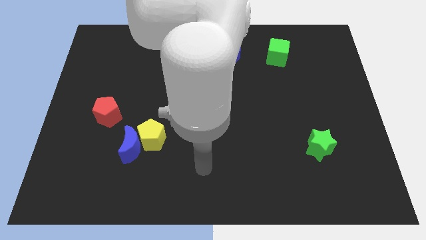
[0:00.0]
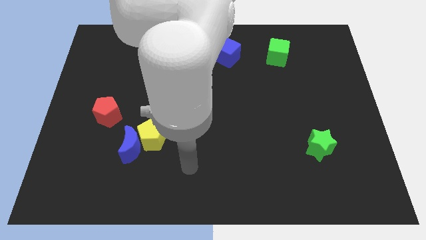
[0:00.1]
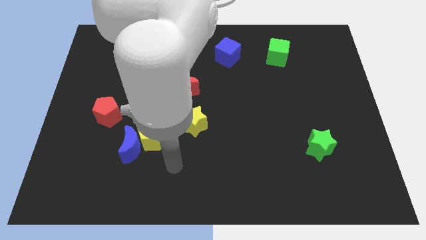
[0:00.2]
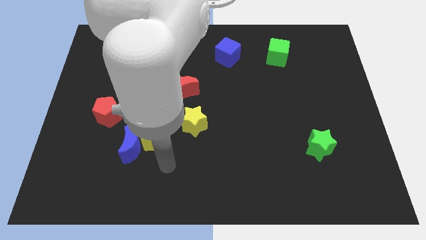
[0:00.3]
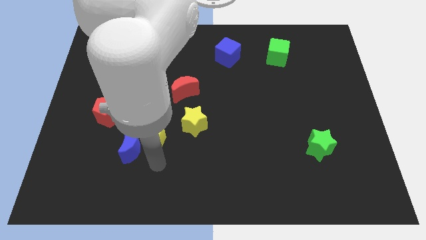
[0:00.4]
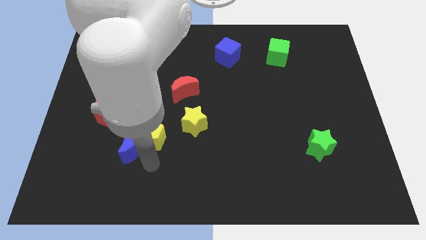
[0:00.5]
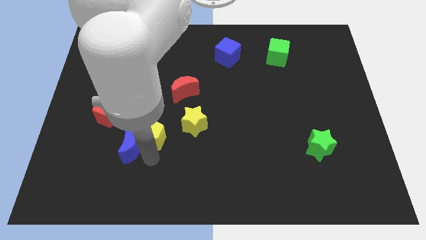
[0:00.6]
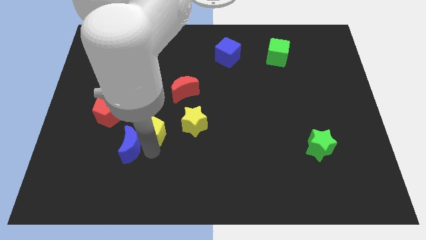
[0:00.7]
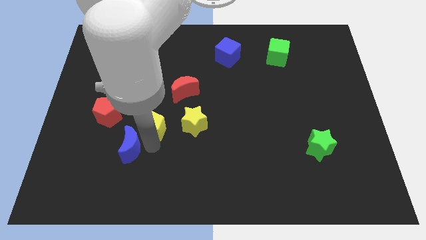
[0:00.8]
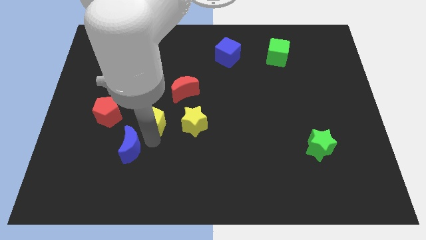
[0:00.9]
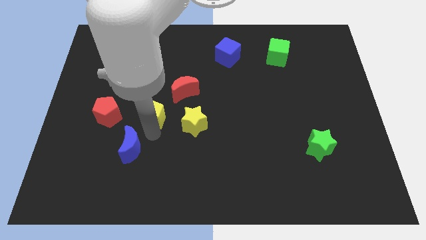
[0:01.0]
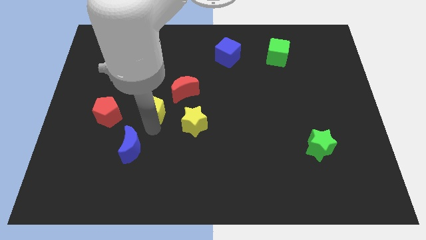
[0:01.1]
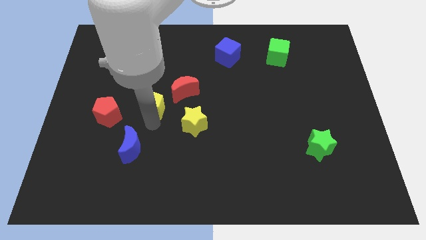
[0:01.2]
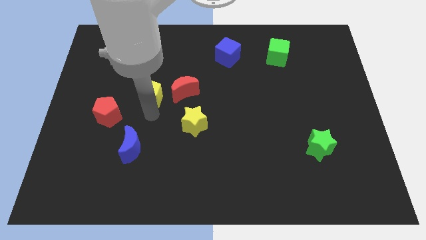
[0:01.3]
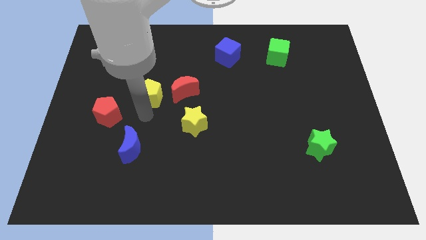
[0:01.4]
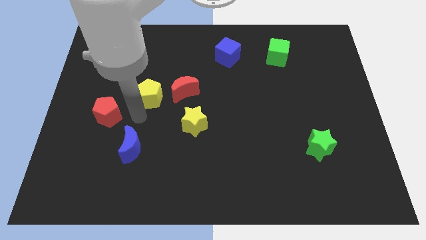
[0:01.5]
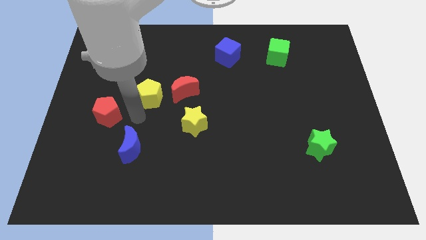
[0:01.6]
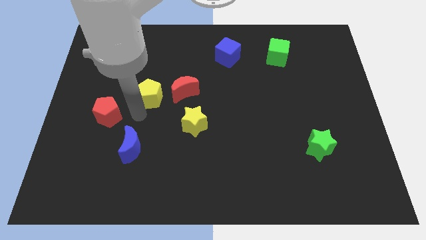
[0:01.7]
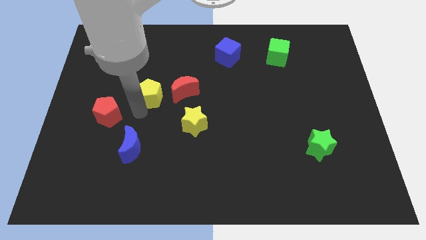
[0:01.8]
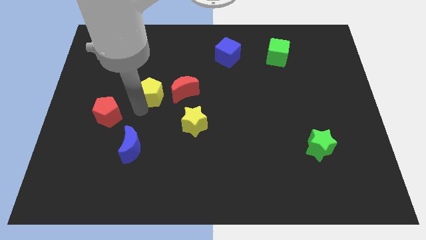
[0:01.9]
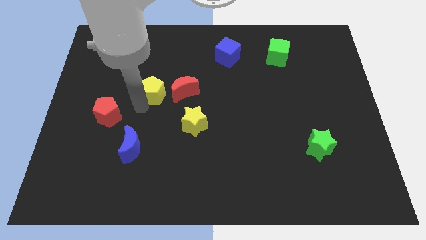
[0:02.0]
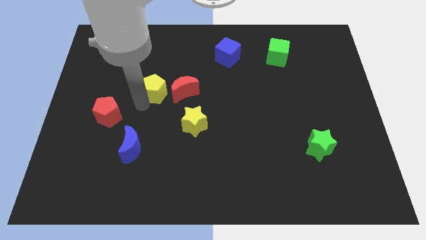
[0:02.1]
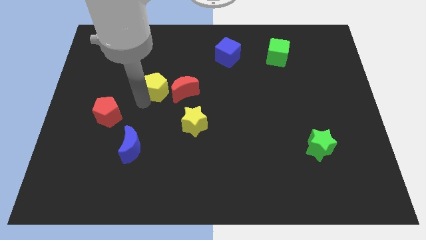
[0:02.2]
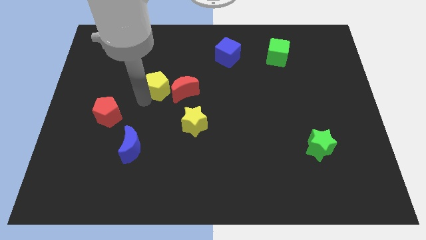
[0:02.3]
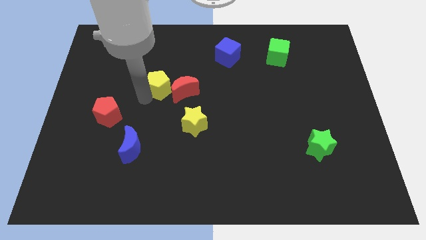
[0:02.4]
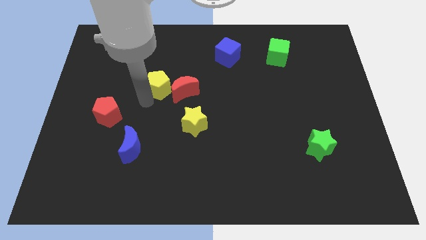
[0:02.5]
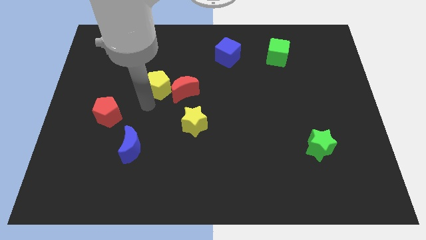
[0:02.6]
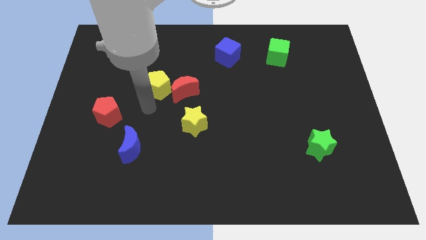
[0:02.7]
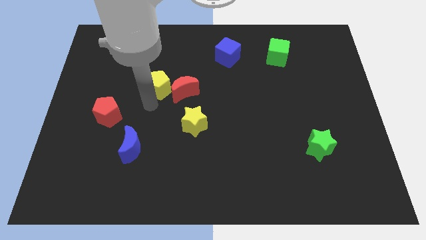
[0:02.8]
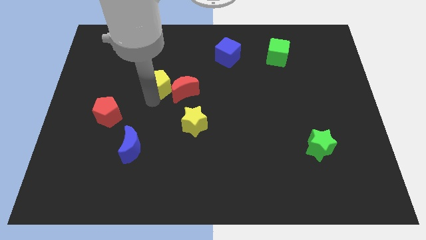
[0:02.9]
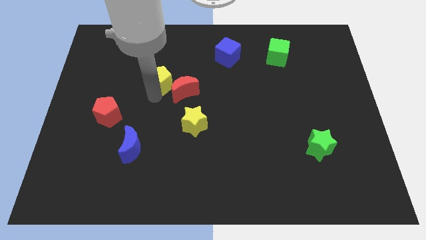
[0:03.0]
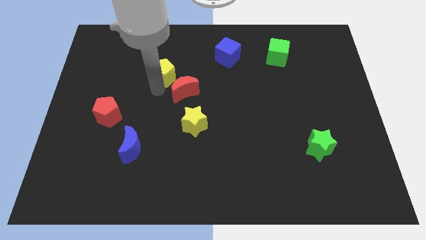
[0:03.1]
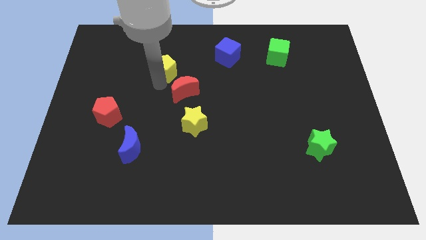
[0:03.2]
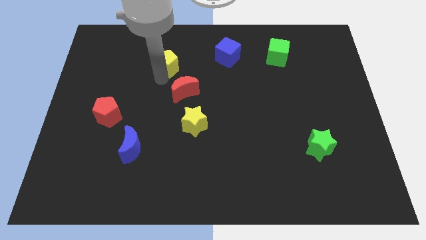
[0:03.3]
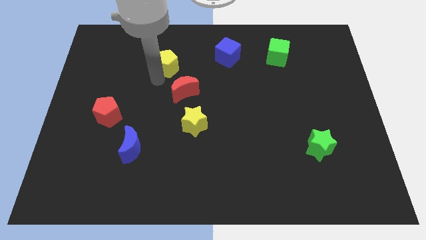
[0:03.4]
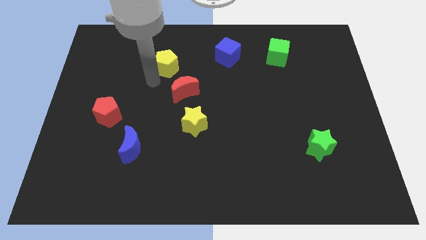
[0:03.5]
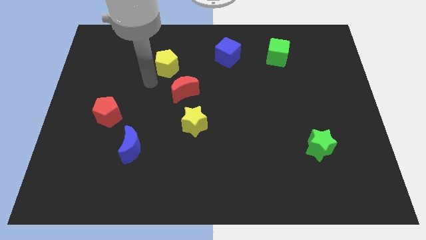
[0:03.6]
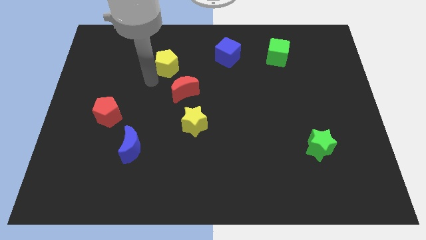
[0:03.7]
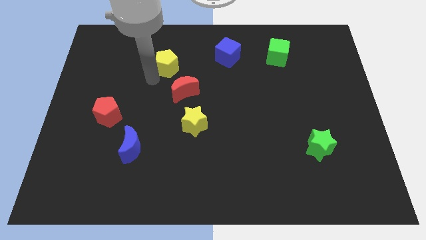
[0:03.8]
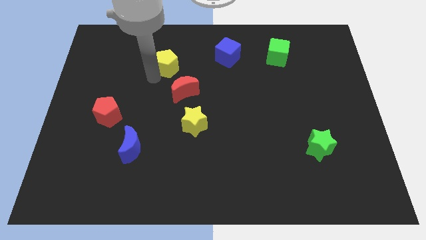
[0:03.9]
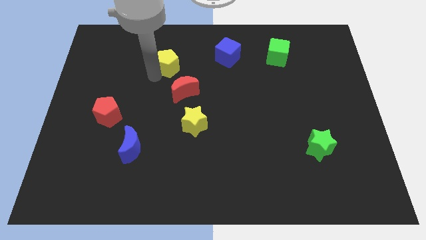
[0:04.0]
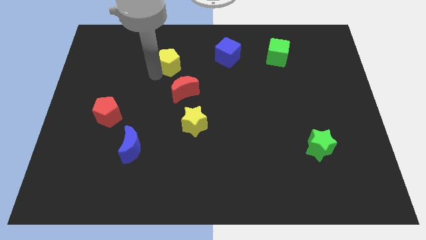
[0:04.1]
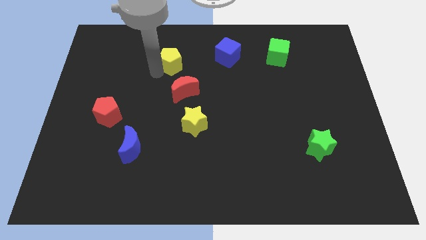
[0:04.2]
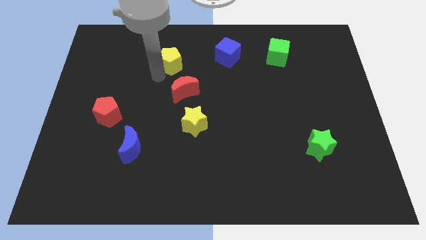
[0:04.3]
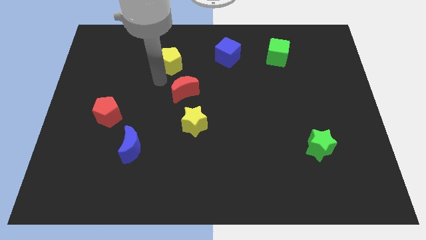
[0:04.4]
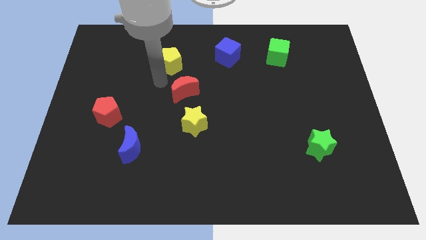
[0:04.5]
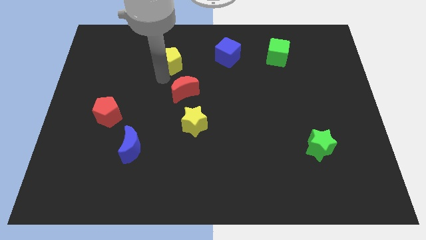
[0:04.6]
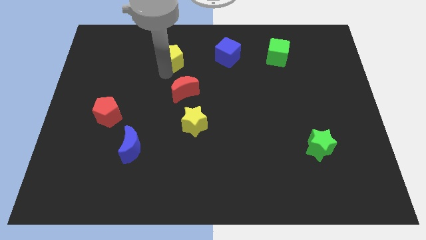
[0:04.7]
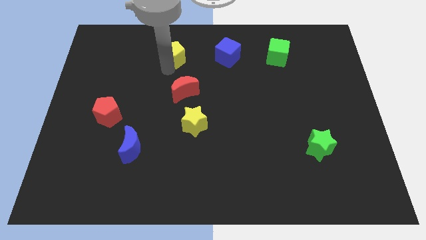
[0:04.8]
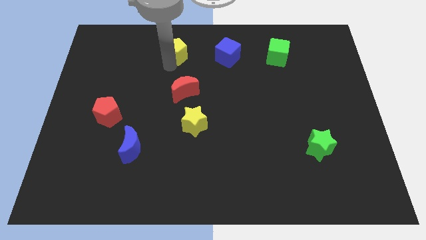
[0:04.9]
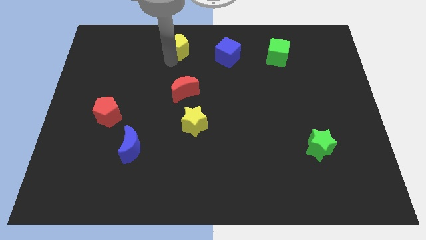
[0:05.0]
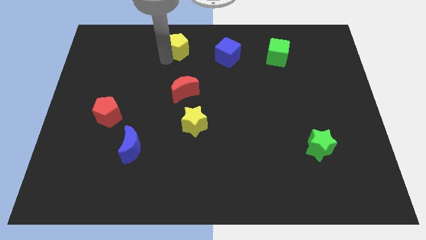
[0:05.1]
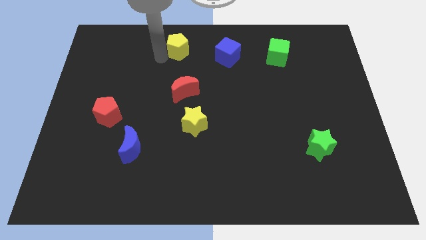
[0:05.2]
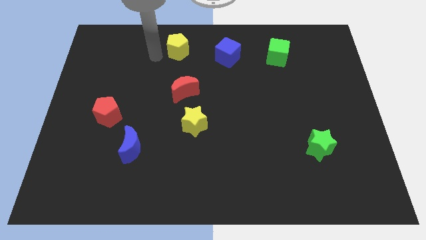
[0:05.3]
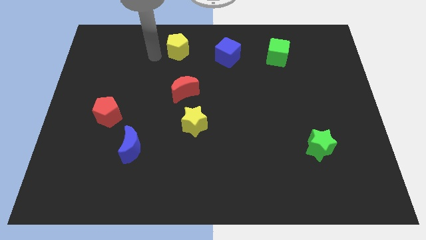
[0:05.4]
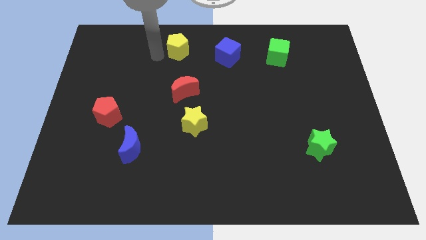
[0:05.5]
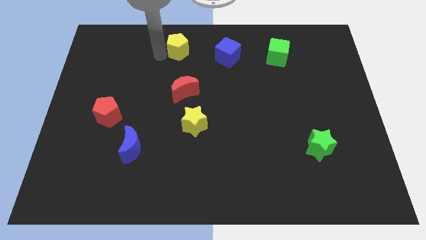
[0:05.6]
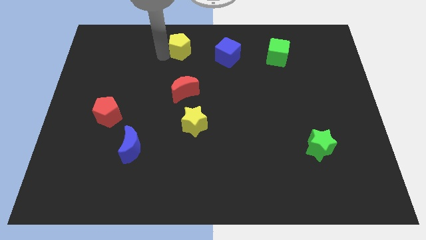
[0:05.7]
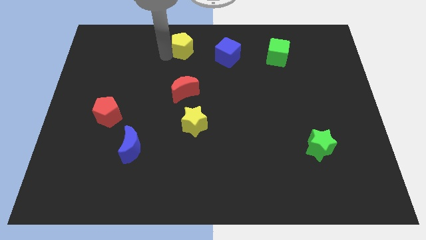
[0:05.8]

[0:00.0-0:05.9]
push the yellow pentagon to the top side
